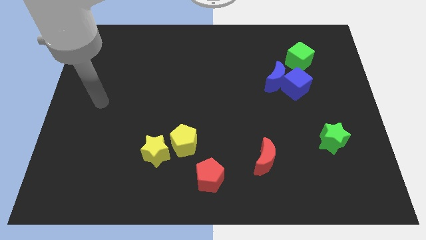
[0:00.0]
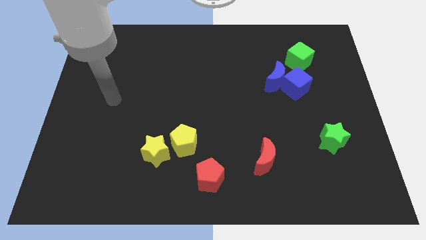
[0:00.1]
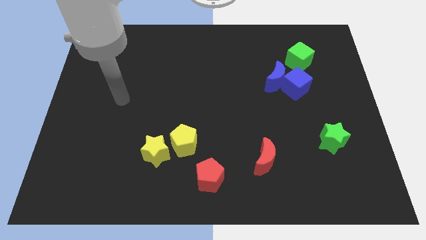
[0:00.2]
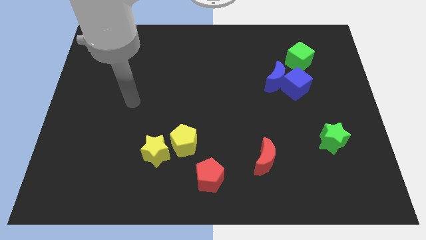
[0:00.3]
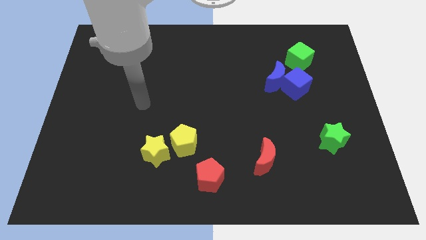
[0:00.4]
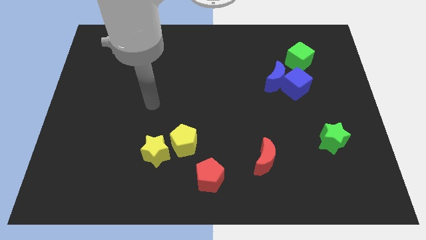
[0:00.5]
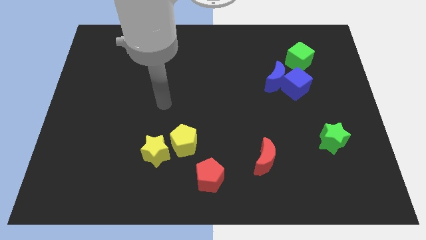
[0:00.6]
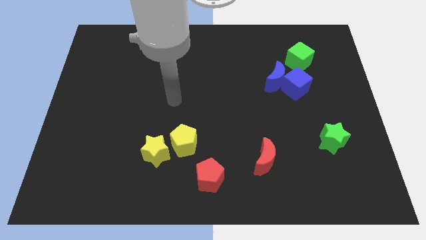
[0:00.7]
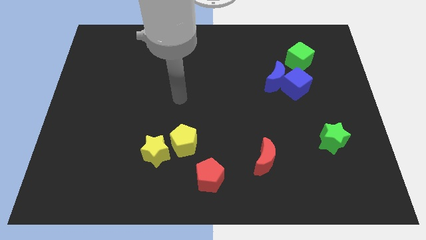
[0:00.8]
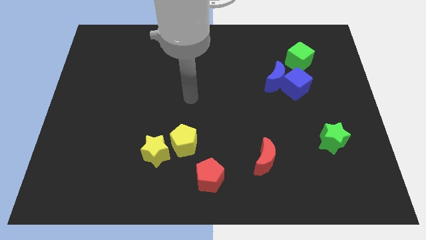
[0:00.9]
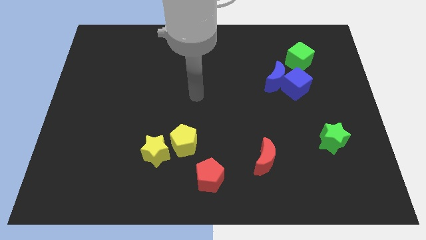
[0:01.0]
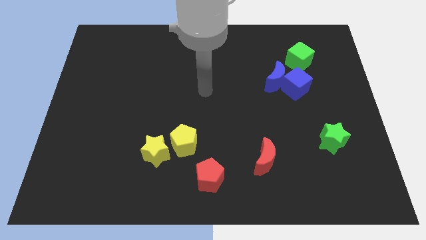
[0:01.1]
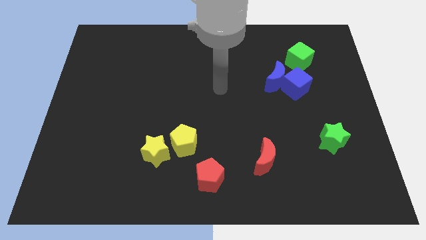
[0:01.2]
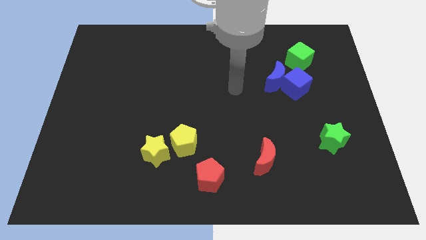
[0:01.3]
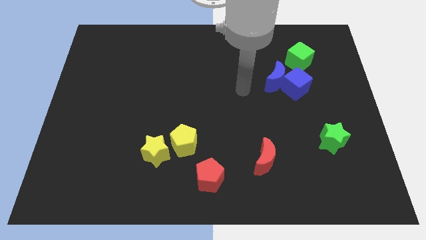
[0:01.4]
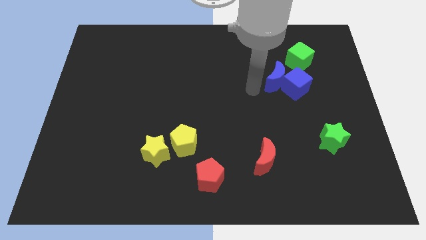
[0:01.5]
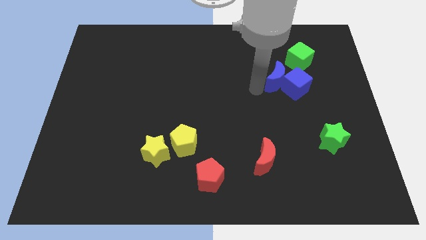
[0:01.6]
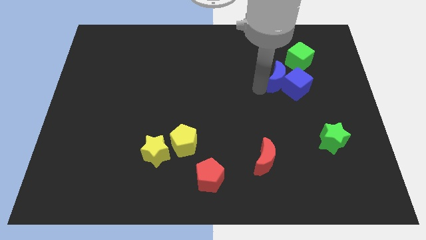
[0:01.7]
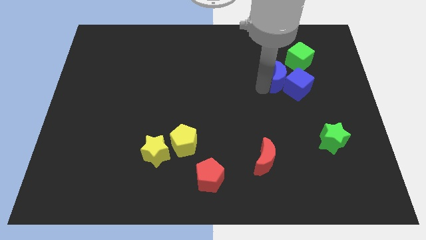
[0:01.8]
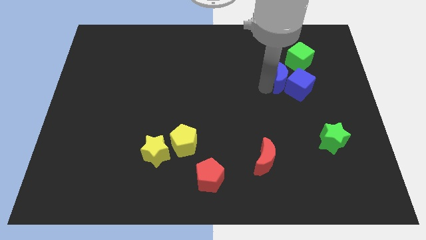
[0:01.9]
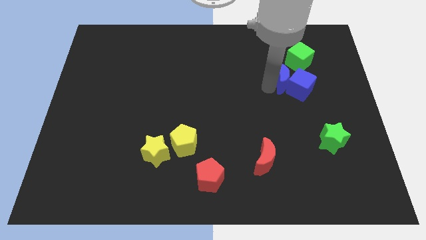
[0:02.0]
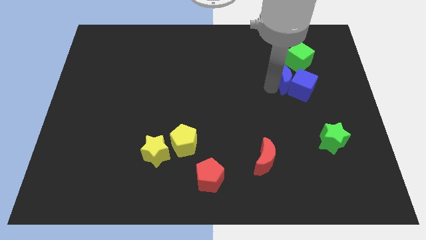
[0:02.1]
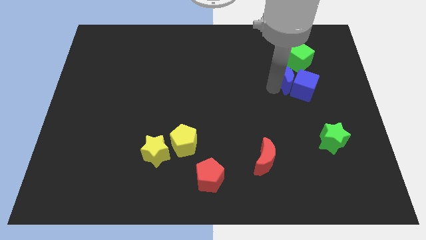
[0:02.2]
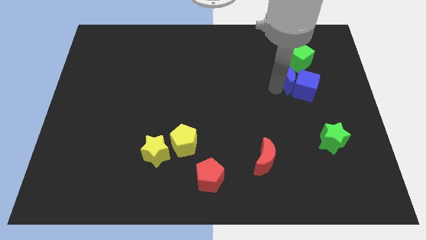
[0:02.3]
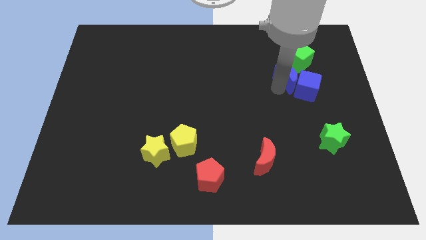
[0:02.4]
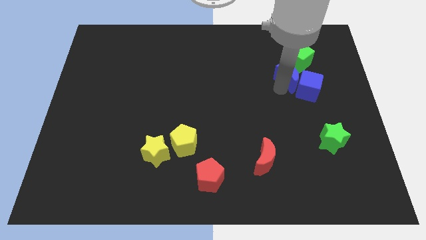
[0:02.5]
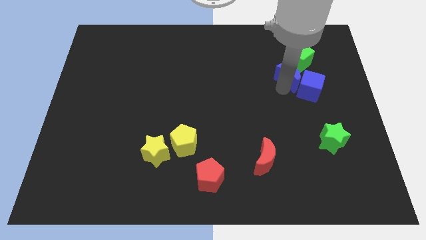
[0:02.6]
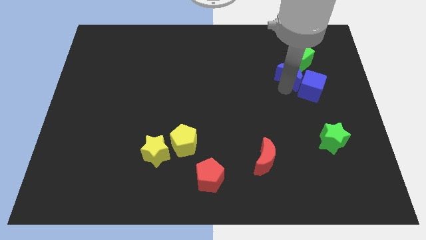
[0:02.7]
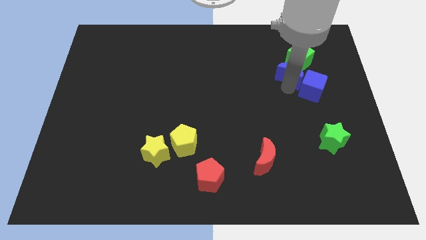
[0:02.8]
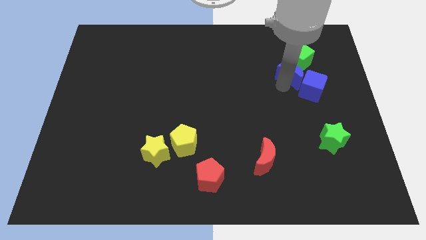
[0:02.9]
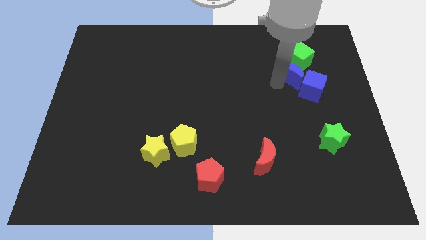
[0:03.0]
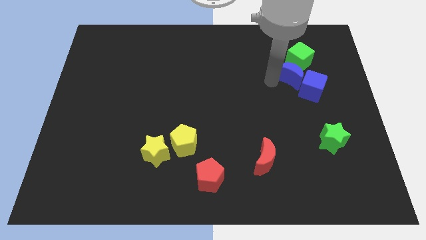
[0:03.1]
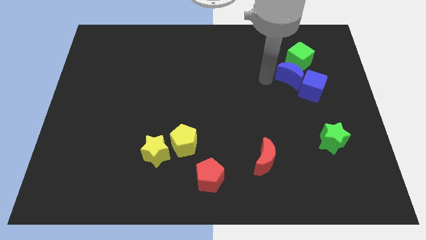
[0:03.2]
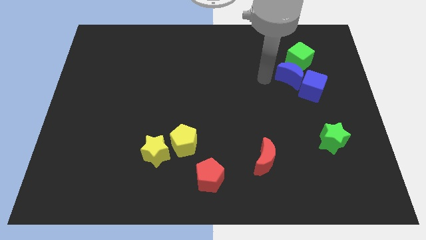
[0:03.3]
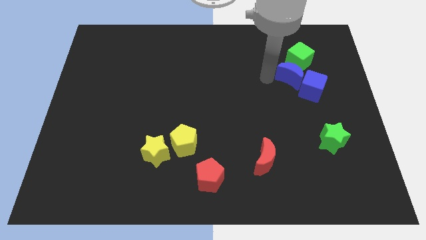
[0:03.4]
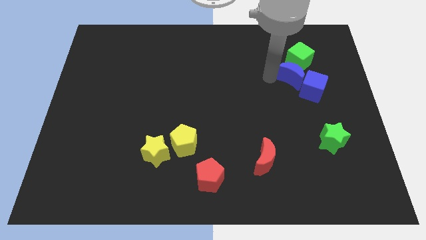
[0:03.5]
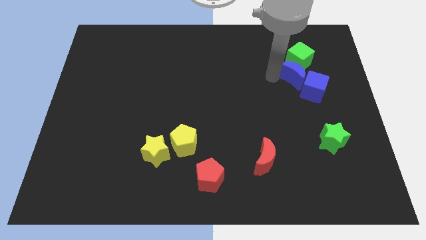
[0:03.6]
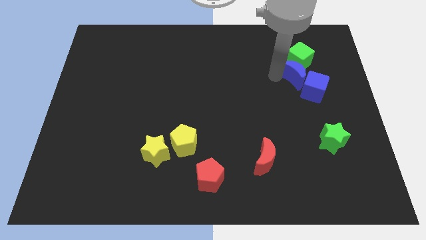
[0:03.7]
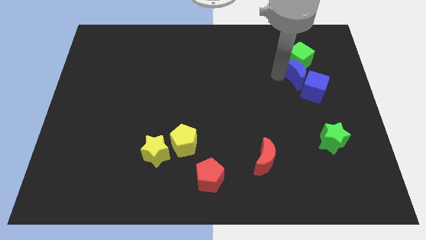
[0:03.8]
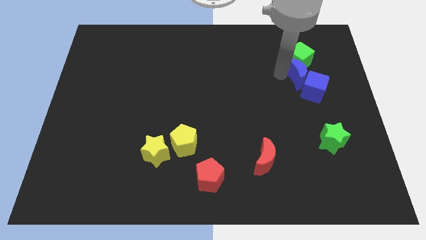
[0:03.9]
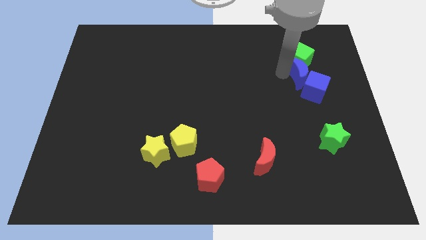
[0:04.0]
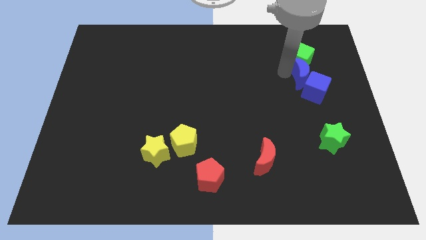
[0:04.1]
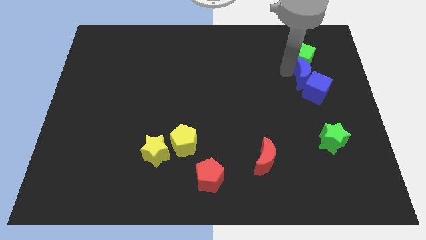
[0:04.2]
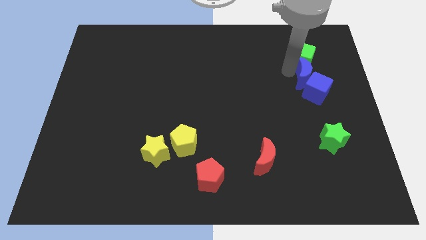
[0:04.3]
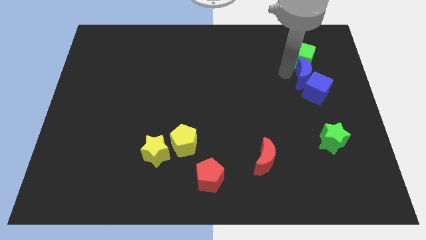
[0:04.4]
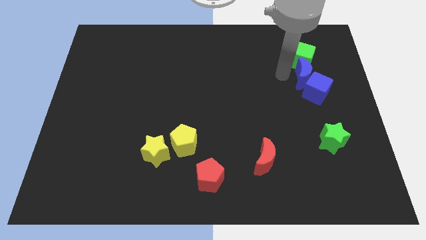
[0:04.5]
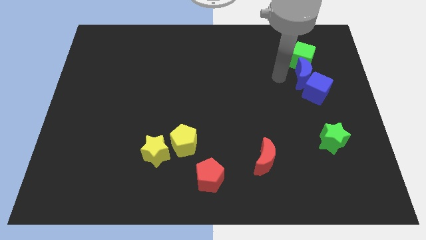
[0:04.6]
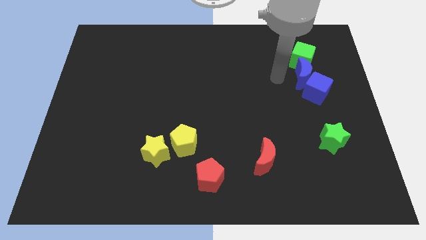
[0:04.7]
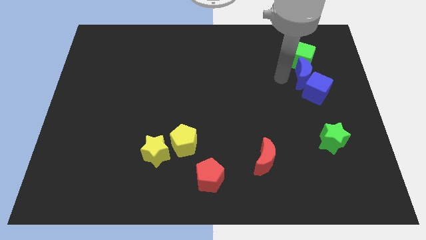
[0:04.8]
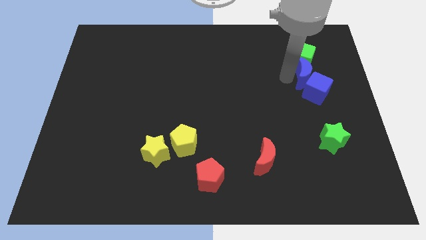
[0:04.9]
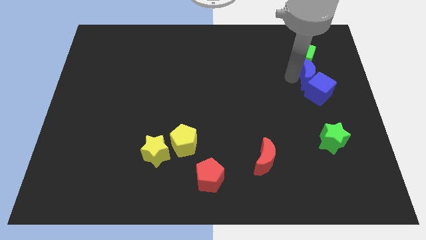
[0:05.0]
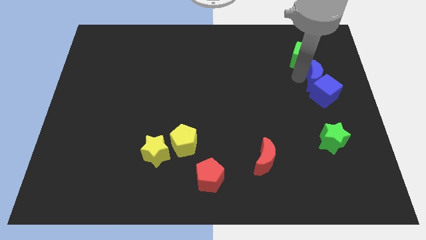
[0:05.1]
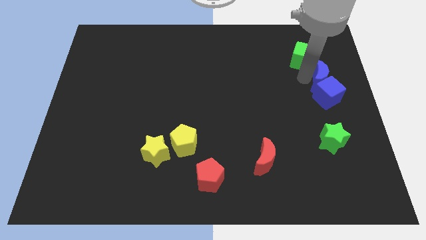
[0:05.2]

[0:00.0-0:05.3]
move the blue moon to the right side of the board

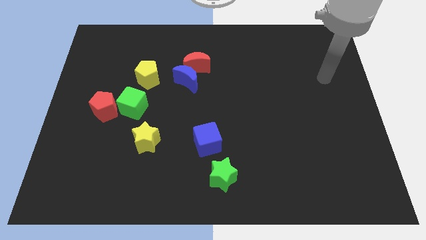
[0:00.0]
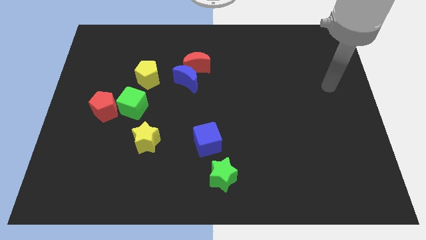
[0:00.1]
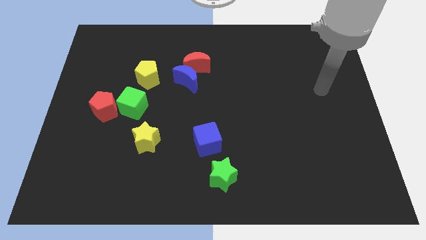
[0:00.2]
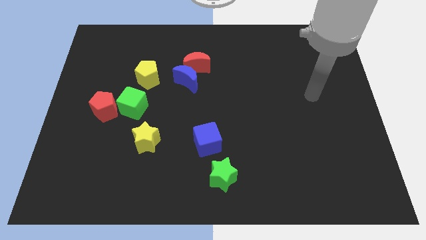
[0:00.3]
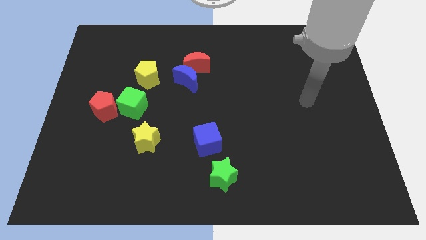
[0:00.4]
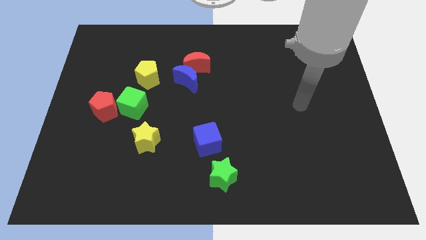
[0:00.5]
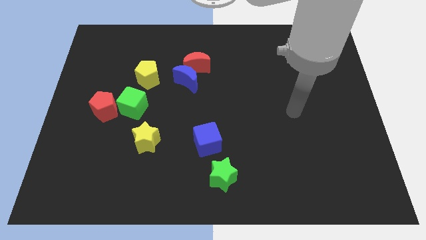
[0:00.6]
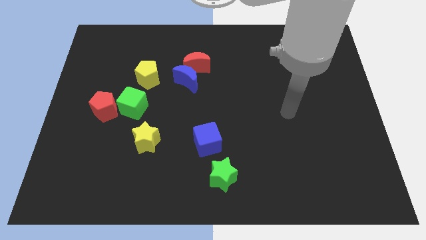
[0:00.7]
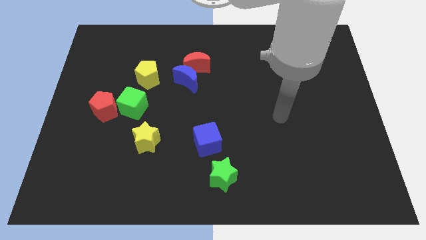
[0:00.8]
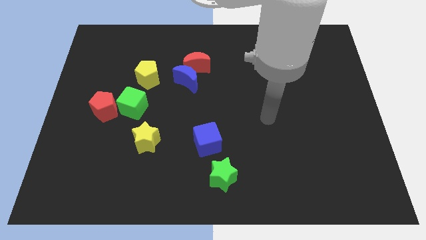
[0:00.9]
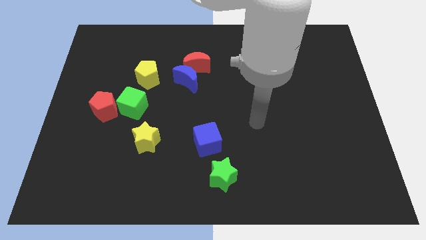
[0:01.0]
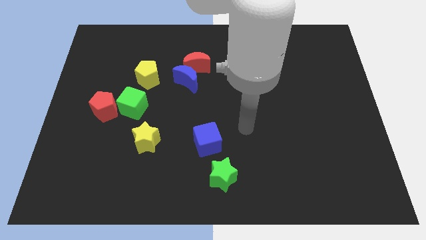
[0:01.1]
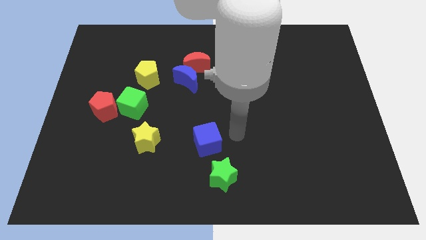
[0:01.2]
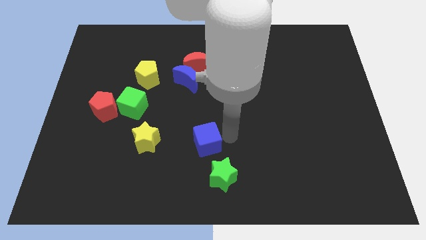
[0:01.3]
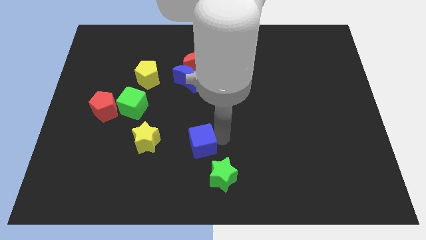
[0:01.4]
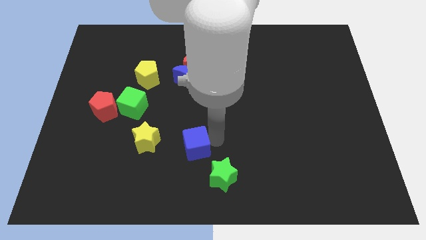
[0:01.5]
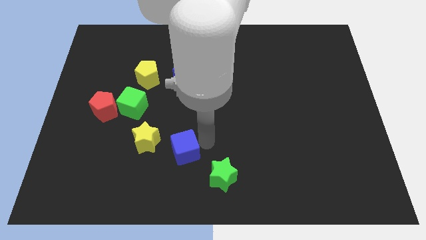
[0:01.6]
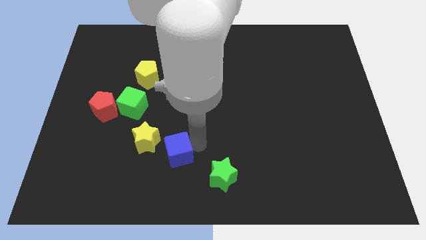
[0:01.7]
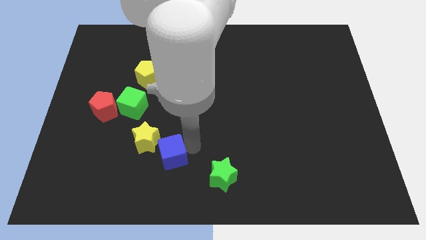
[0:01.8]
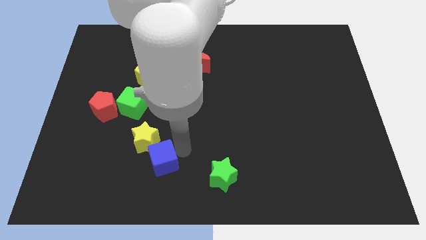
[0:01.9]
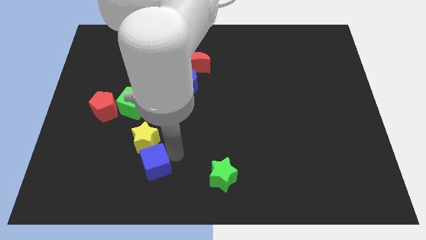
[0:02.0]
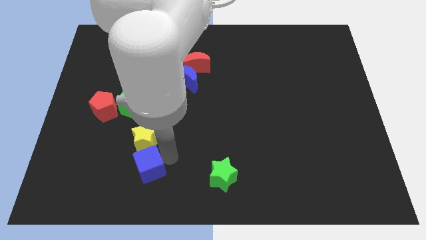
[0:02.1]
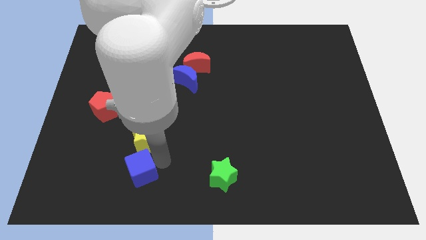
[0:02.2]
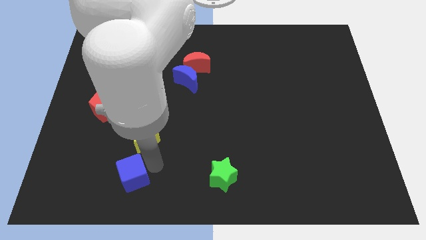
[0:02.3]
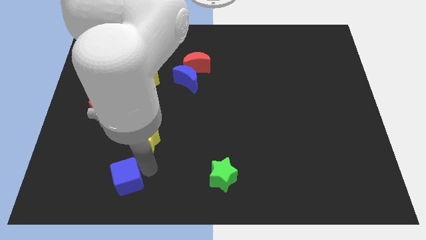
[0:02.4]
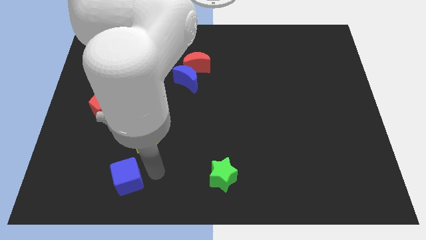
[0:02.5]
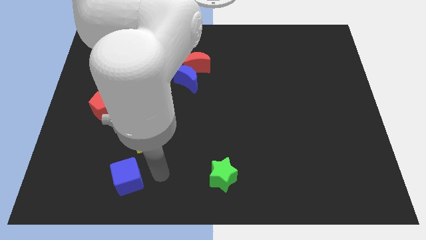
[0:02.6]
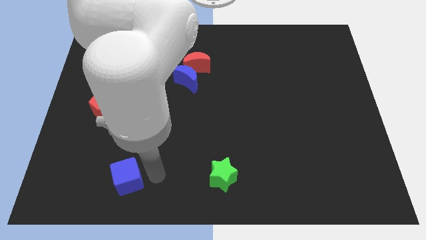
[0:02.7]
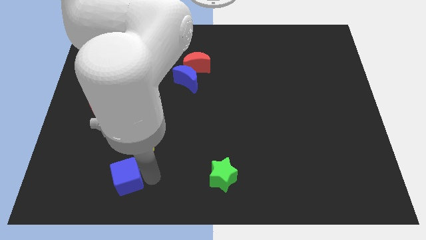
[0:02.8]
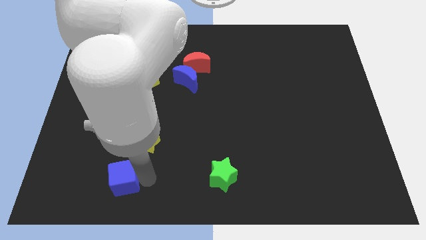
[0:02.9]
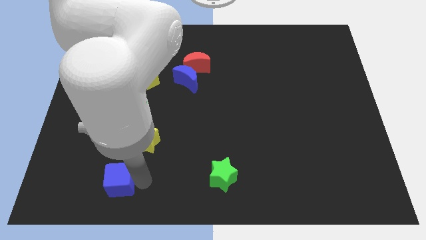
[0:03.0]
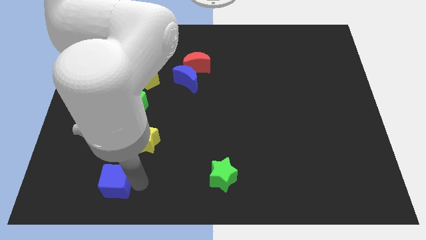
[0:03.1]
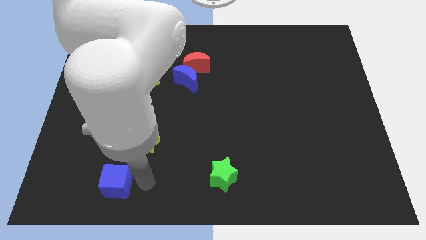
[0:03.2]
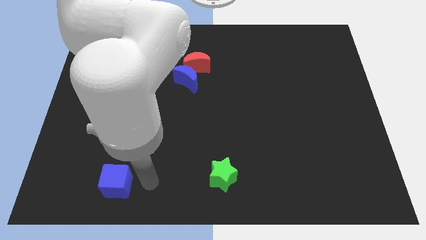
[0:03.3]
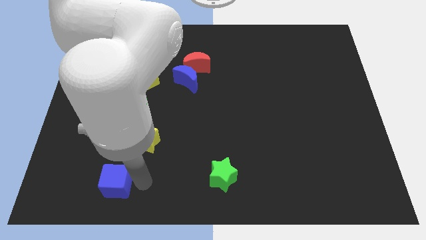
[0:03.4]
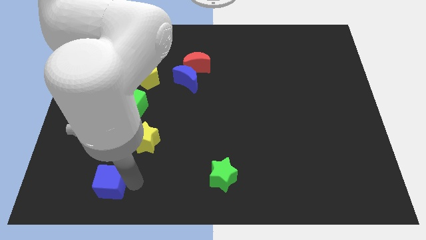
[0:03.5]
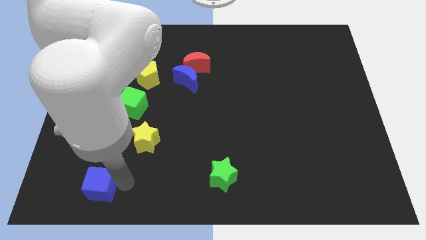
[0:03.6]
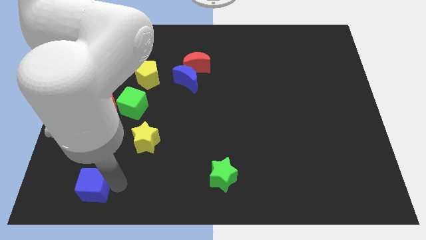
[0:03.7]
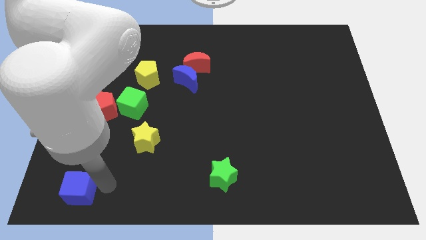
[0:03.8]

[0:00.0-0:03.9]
push the blue cube to the bottom left corner
